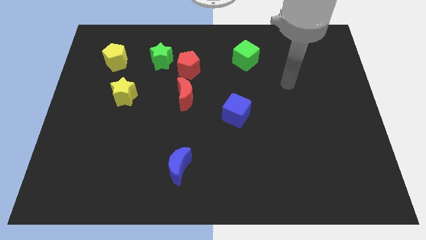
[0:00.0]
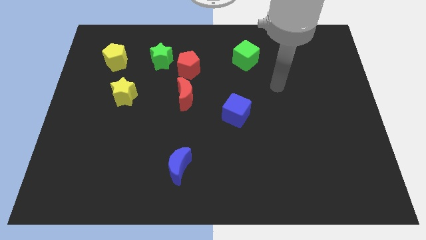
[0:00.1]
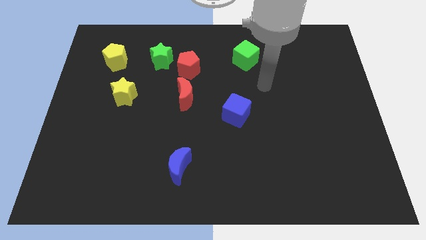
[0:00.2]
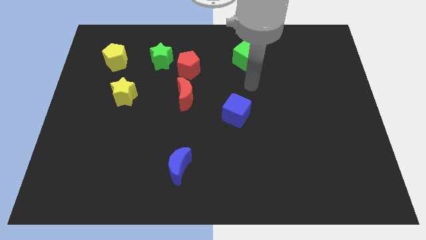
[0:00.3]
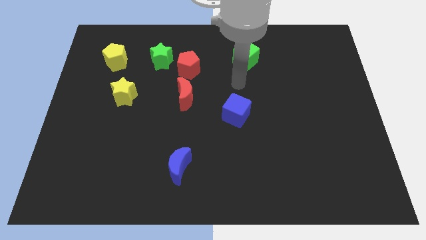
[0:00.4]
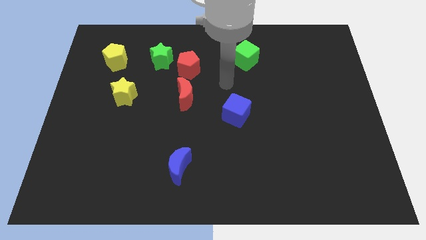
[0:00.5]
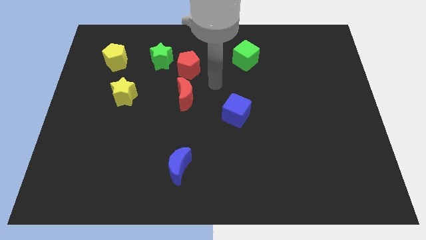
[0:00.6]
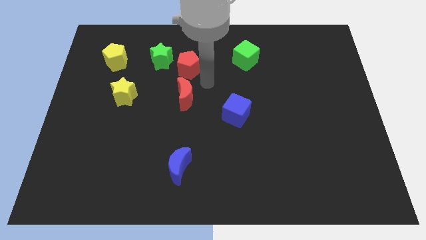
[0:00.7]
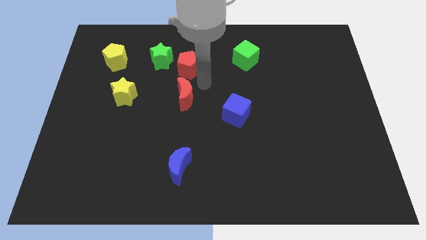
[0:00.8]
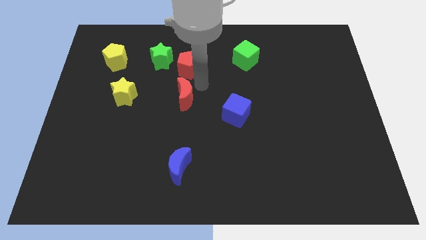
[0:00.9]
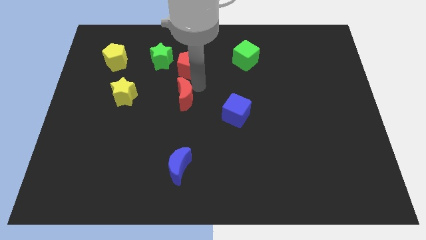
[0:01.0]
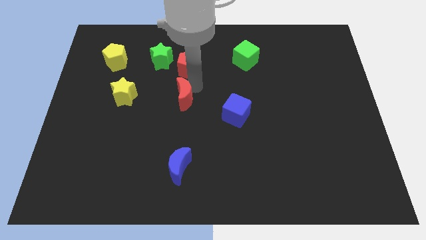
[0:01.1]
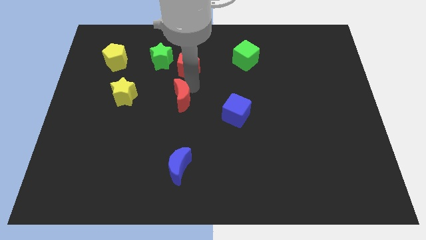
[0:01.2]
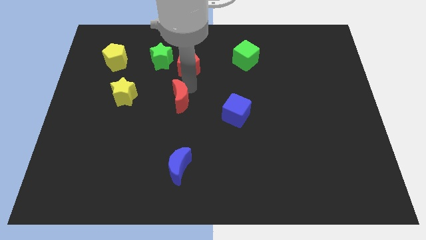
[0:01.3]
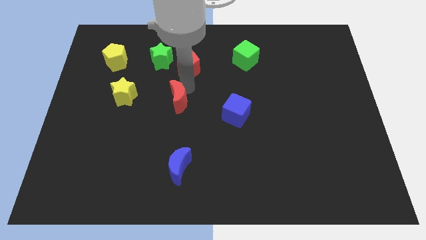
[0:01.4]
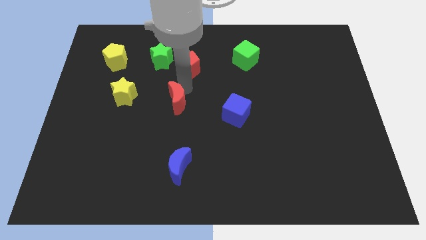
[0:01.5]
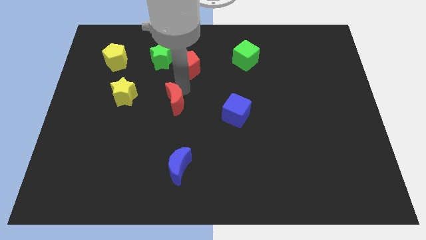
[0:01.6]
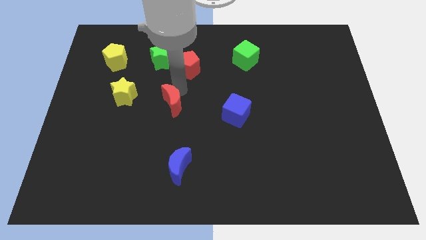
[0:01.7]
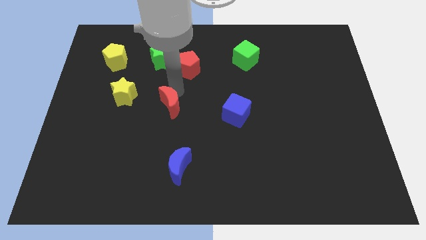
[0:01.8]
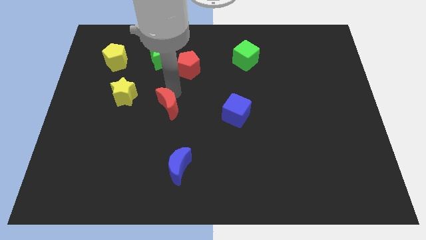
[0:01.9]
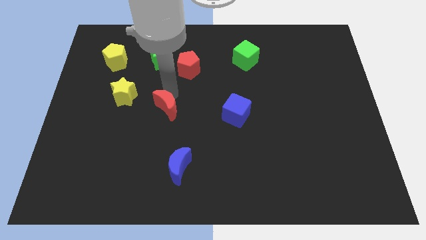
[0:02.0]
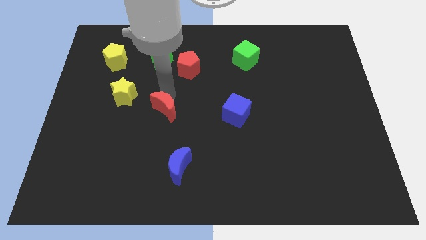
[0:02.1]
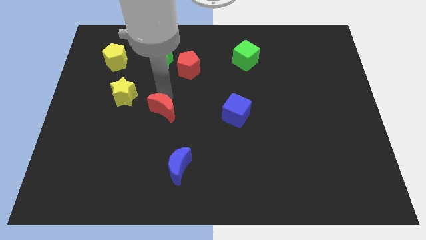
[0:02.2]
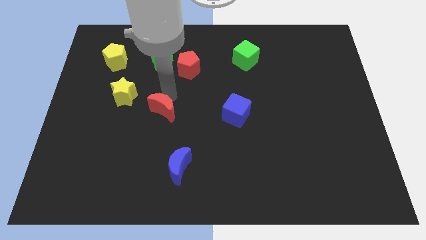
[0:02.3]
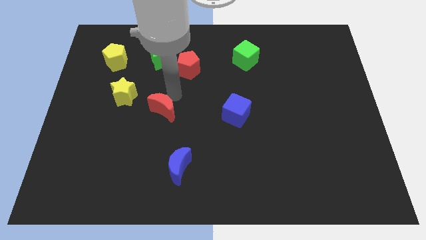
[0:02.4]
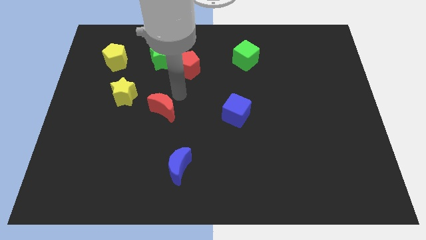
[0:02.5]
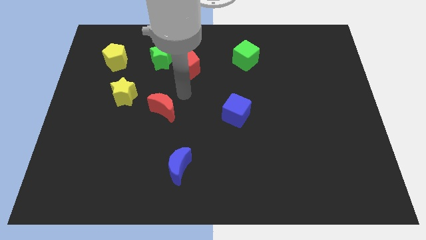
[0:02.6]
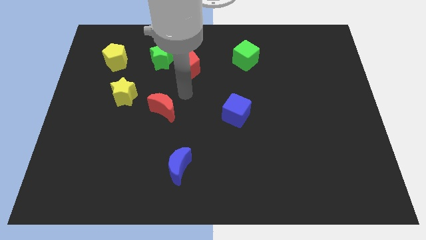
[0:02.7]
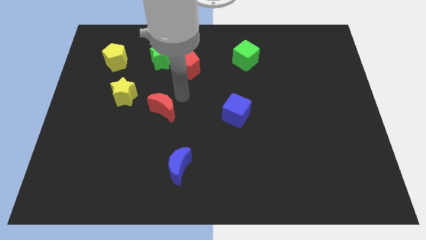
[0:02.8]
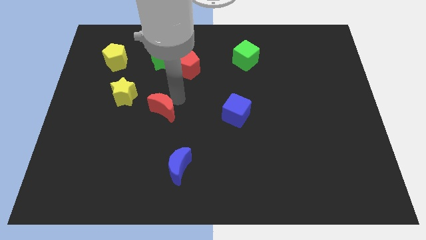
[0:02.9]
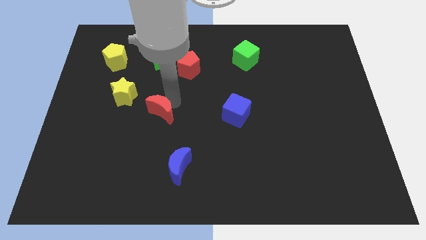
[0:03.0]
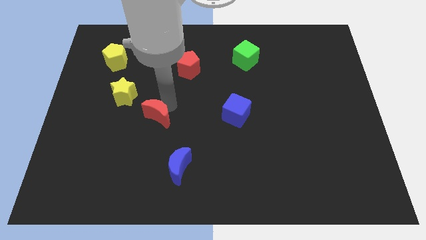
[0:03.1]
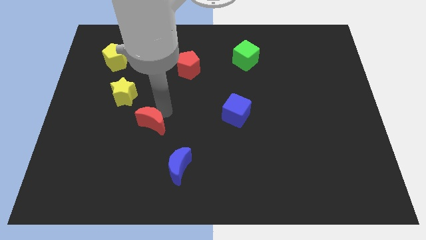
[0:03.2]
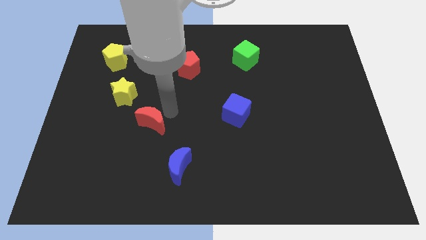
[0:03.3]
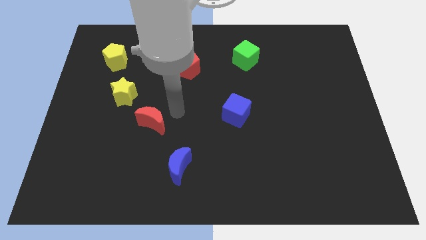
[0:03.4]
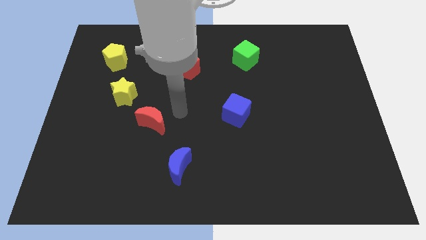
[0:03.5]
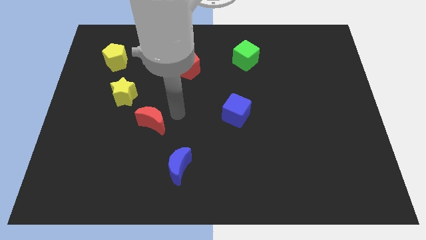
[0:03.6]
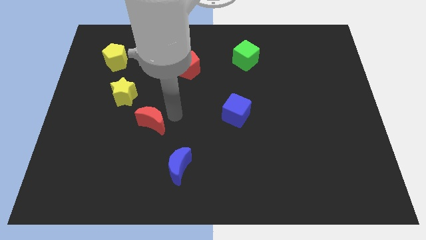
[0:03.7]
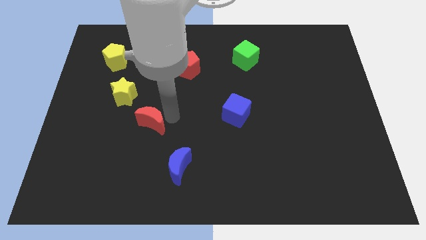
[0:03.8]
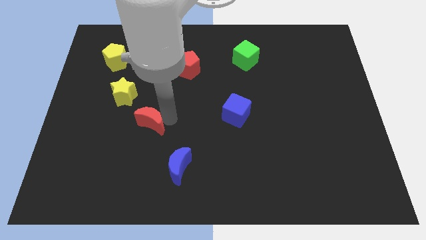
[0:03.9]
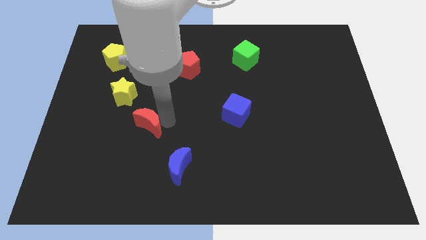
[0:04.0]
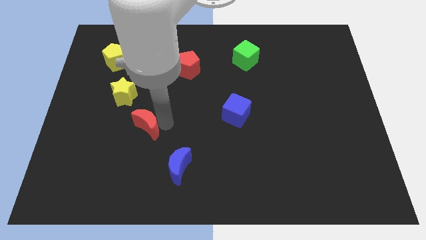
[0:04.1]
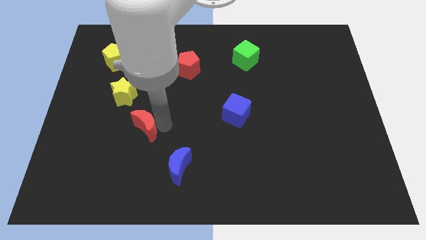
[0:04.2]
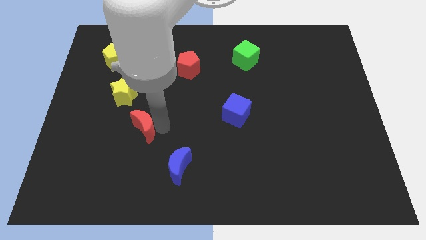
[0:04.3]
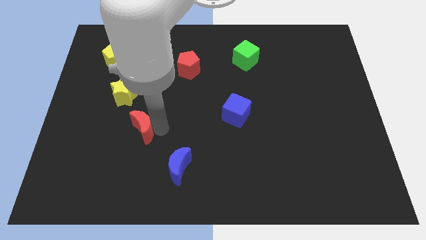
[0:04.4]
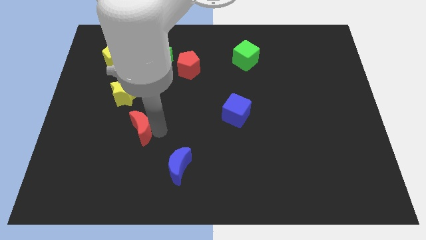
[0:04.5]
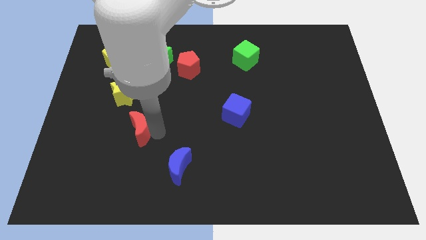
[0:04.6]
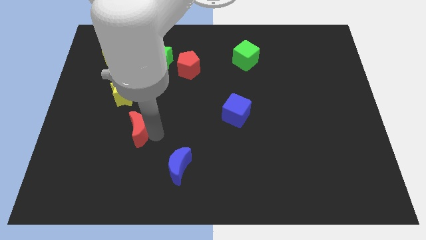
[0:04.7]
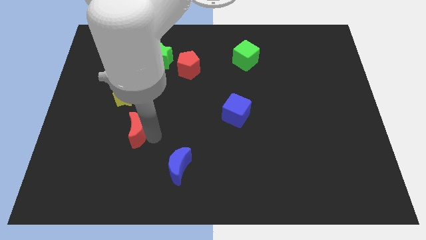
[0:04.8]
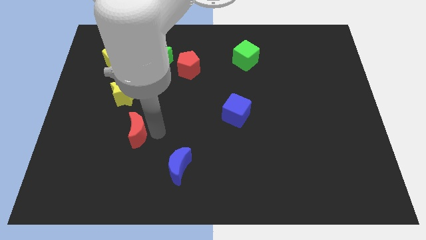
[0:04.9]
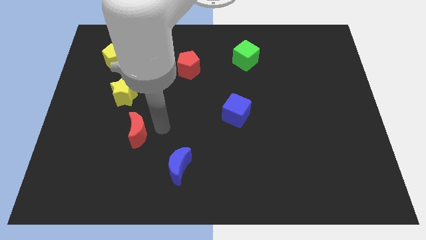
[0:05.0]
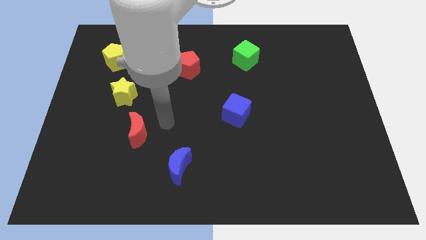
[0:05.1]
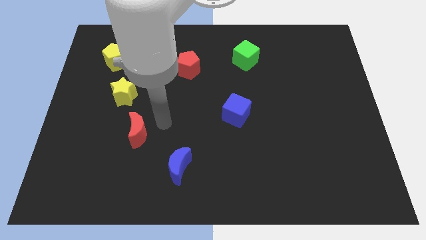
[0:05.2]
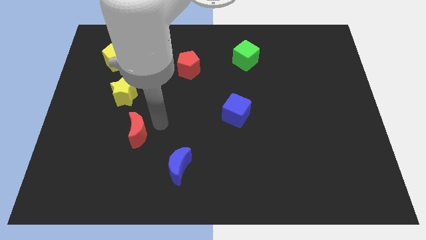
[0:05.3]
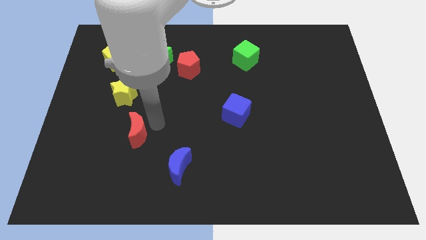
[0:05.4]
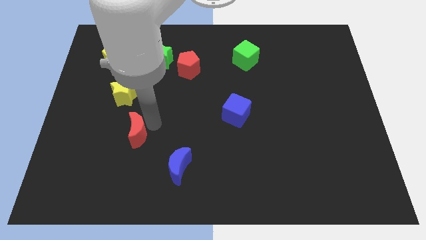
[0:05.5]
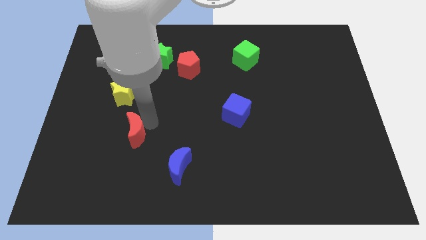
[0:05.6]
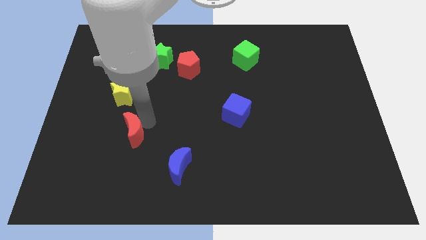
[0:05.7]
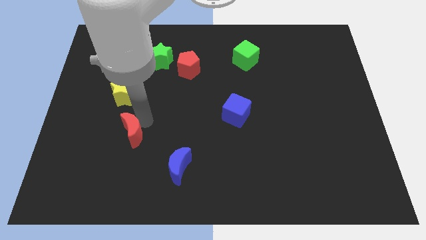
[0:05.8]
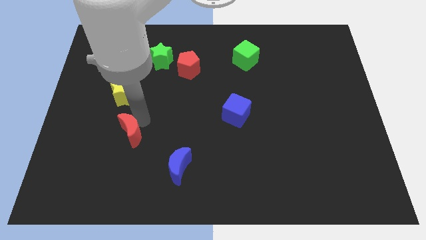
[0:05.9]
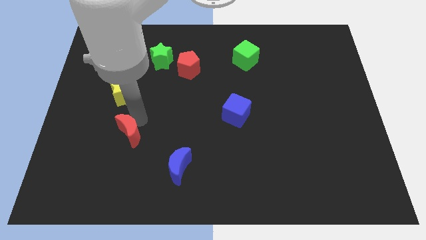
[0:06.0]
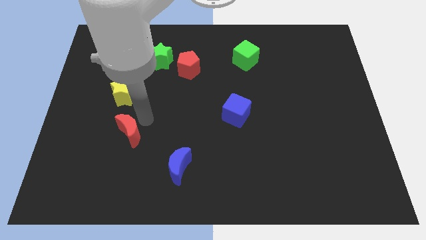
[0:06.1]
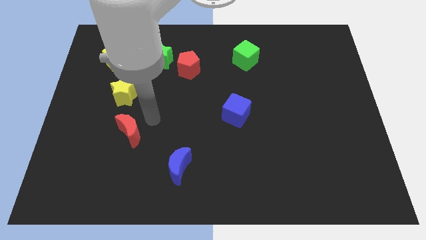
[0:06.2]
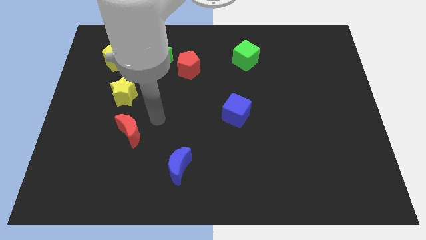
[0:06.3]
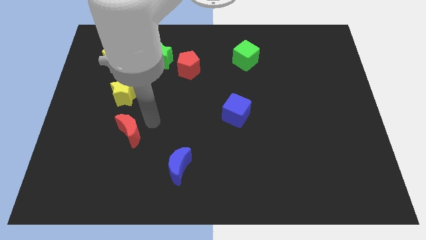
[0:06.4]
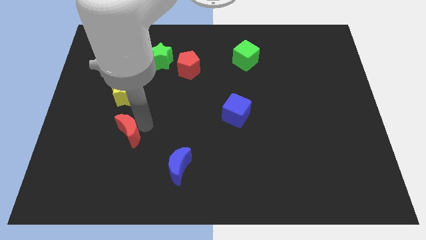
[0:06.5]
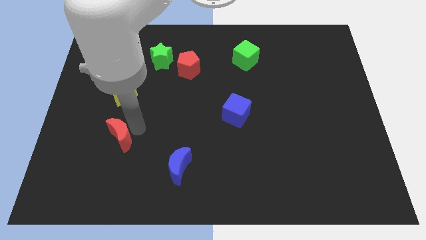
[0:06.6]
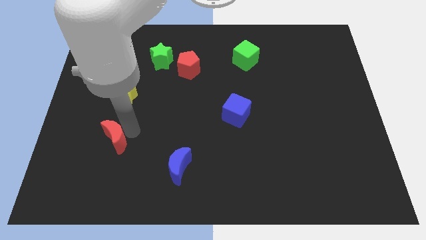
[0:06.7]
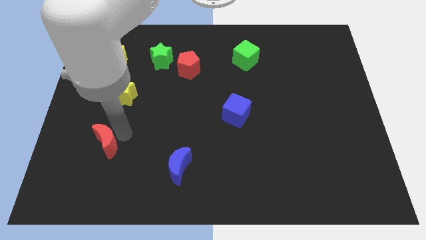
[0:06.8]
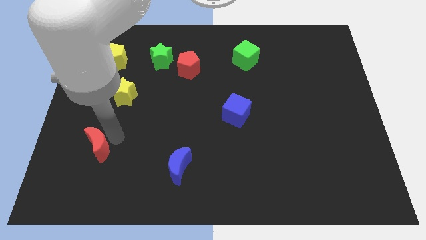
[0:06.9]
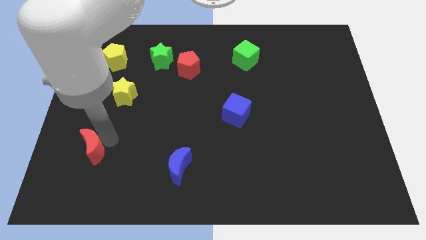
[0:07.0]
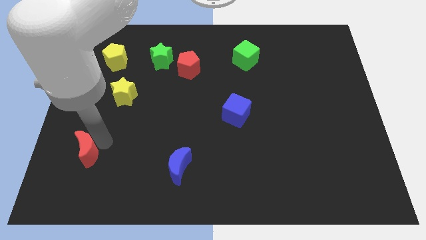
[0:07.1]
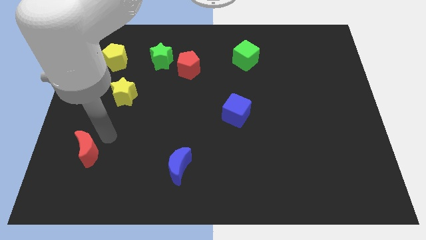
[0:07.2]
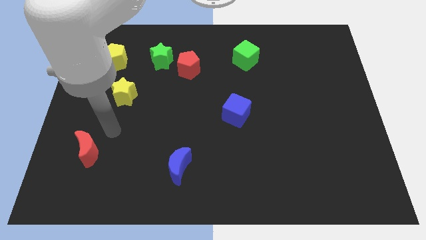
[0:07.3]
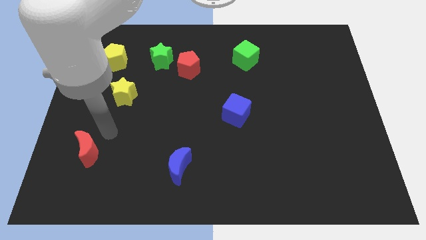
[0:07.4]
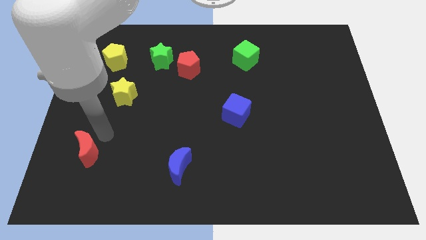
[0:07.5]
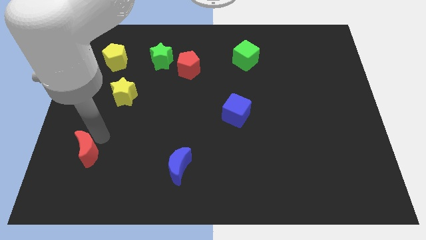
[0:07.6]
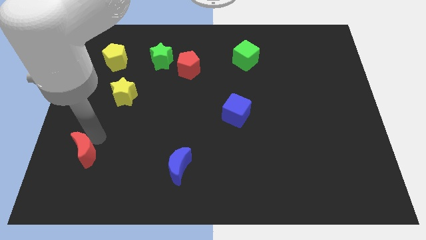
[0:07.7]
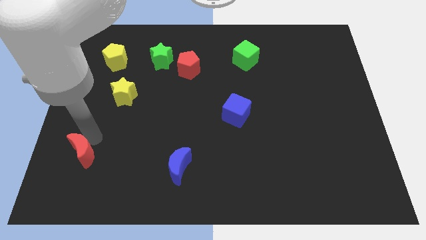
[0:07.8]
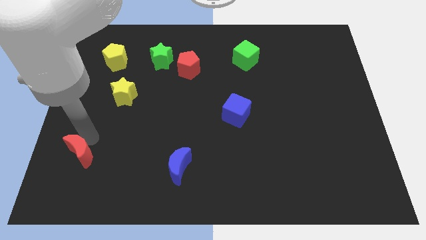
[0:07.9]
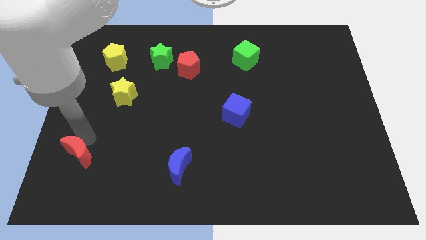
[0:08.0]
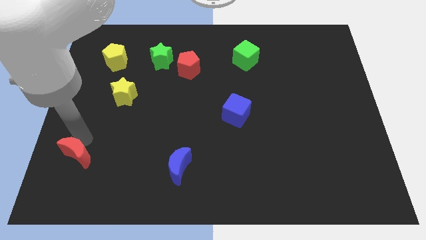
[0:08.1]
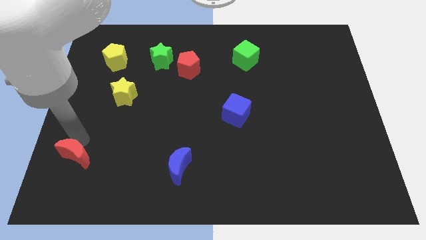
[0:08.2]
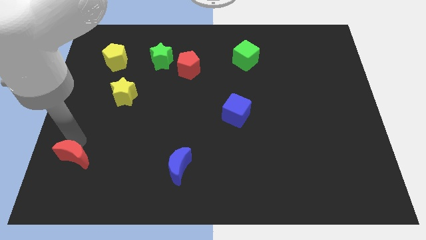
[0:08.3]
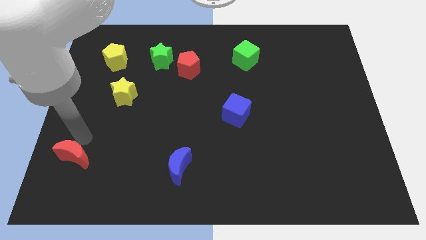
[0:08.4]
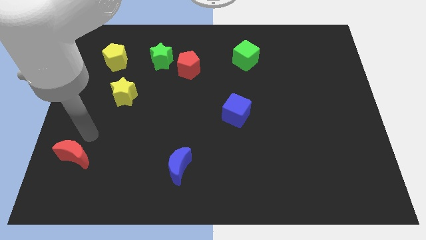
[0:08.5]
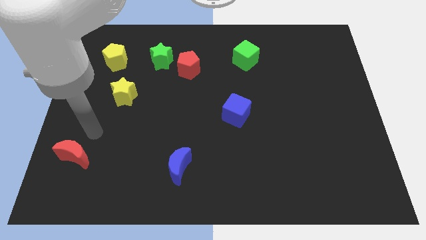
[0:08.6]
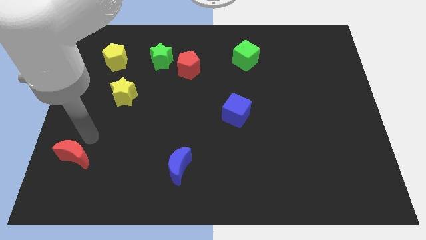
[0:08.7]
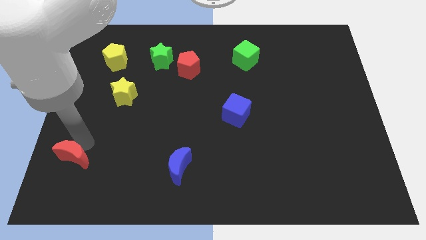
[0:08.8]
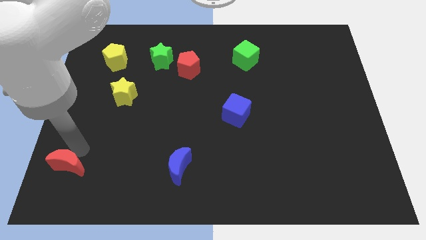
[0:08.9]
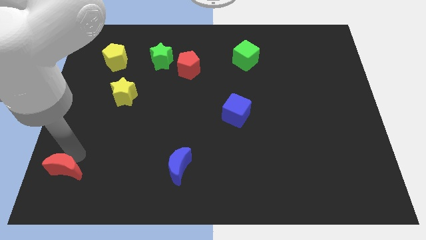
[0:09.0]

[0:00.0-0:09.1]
push the red moon to the bottom left
